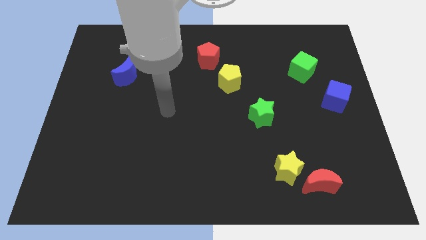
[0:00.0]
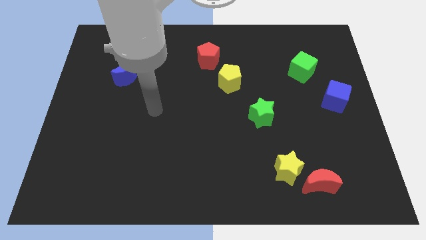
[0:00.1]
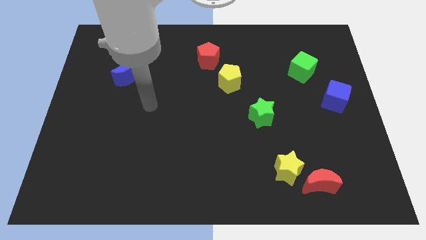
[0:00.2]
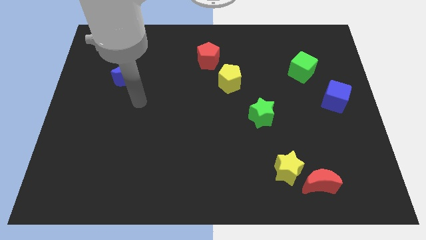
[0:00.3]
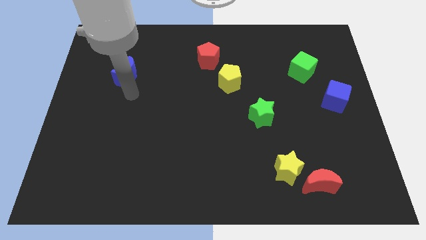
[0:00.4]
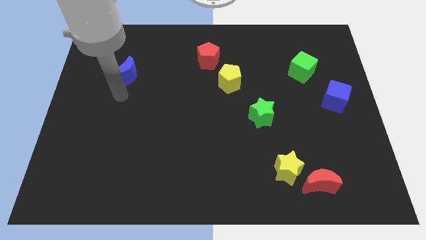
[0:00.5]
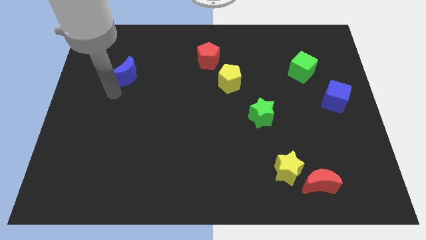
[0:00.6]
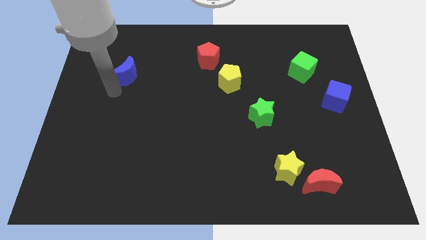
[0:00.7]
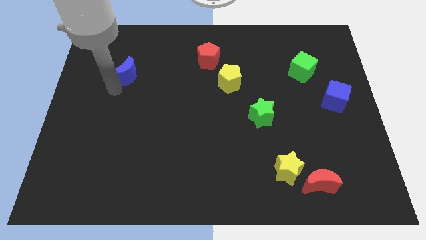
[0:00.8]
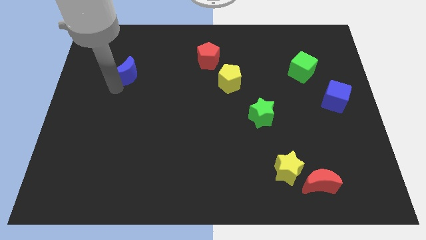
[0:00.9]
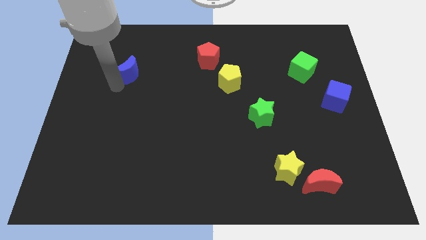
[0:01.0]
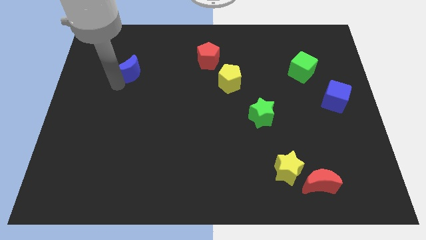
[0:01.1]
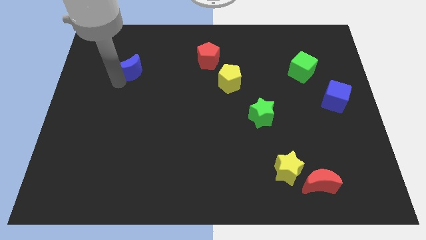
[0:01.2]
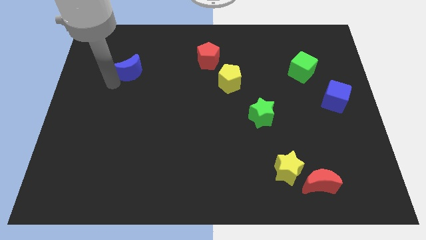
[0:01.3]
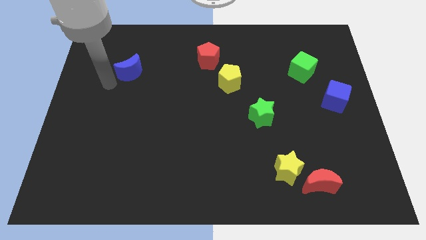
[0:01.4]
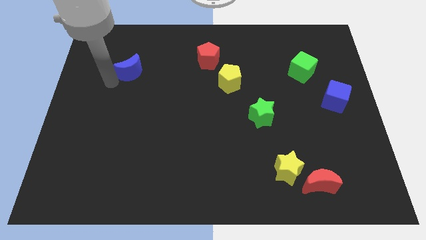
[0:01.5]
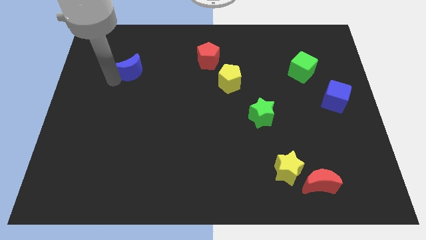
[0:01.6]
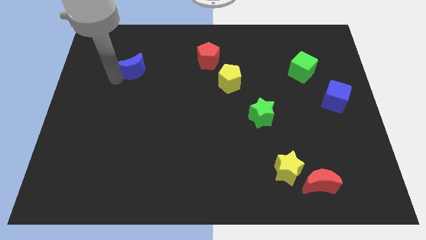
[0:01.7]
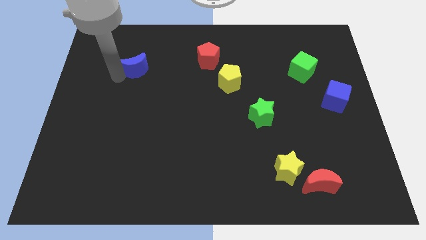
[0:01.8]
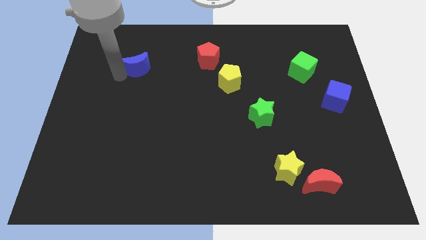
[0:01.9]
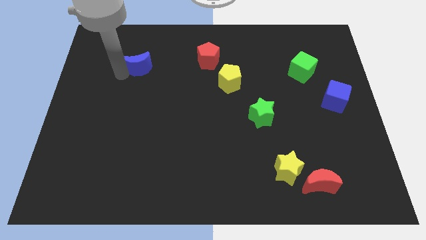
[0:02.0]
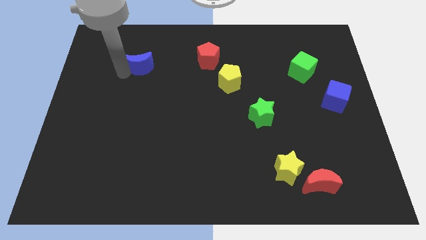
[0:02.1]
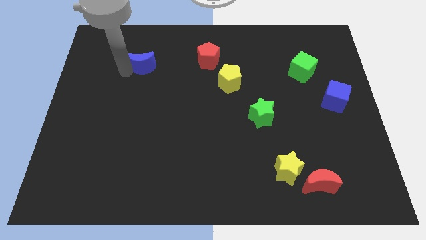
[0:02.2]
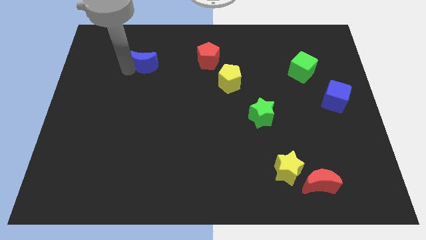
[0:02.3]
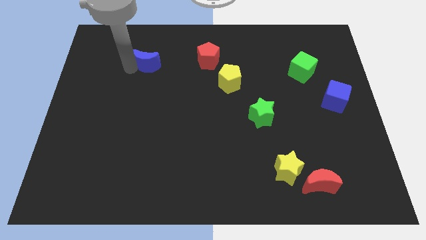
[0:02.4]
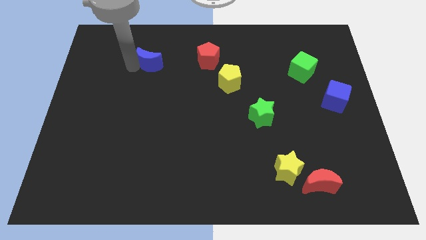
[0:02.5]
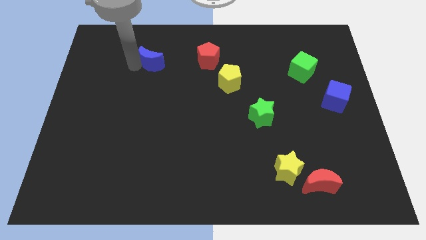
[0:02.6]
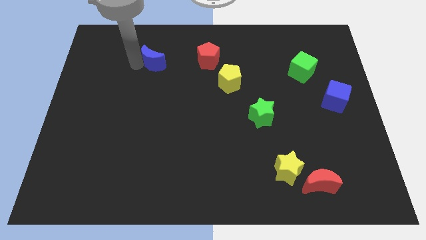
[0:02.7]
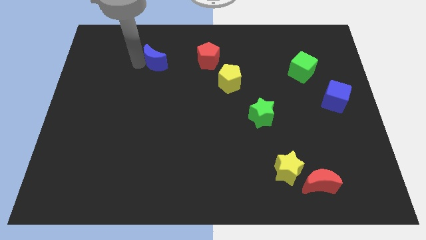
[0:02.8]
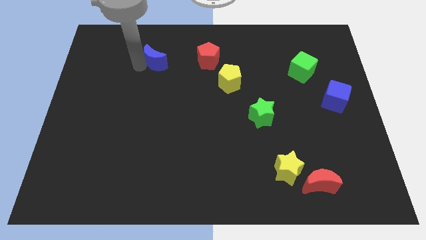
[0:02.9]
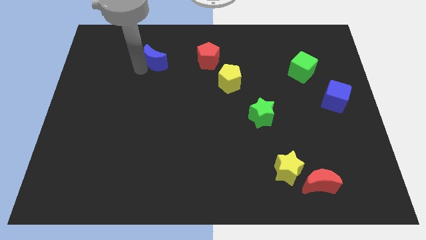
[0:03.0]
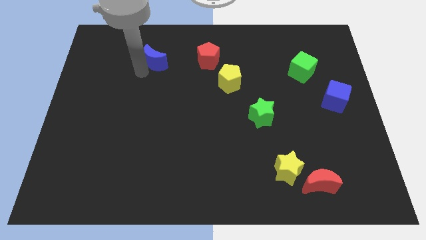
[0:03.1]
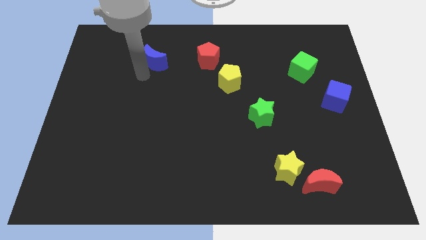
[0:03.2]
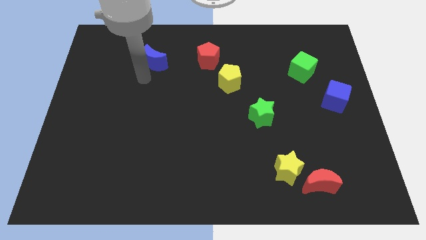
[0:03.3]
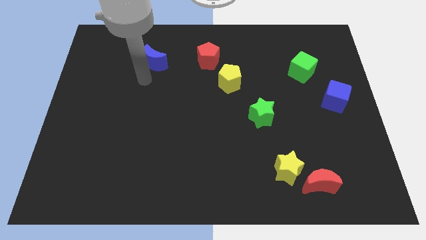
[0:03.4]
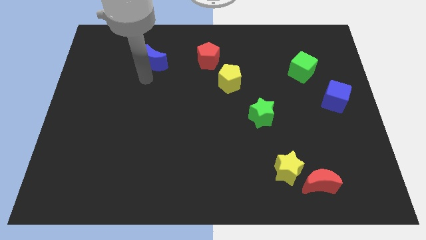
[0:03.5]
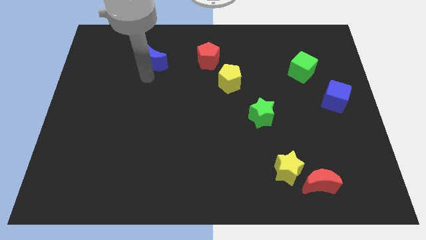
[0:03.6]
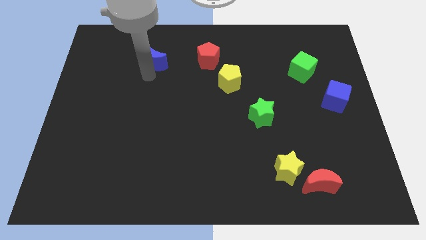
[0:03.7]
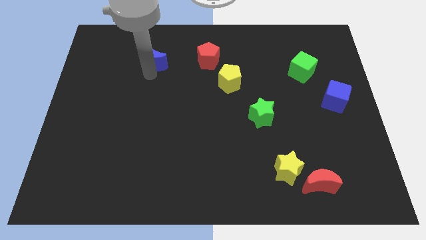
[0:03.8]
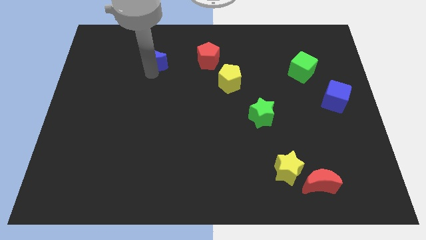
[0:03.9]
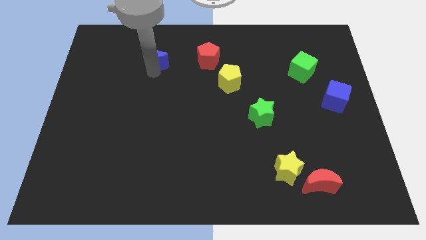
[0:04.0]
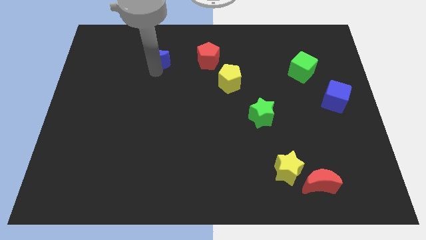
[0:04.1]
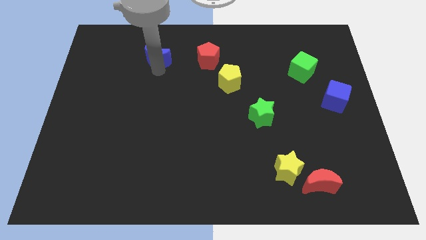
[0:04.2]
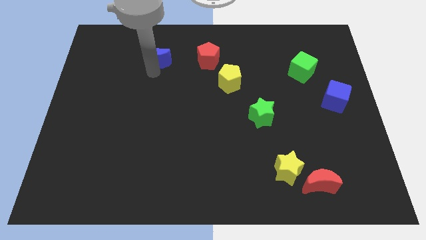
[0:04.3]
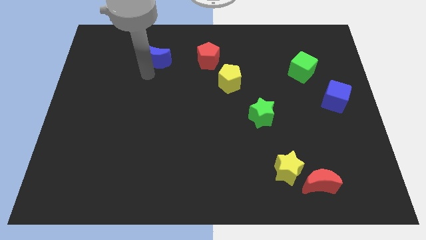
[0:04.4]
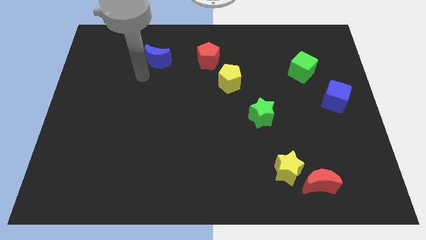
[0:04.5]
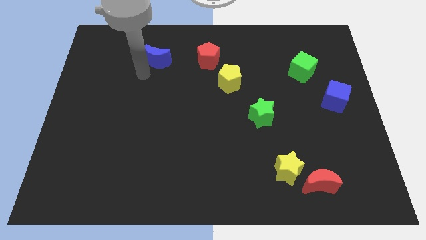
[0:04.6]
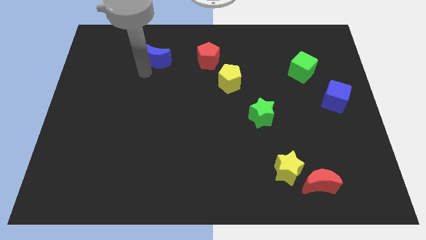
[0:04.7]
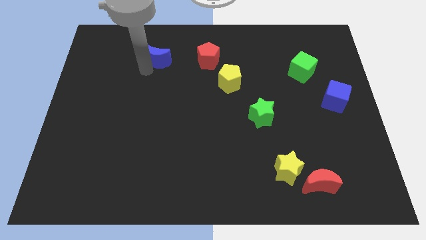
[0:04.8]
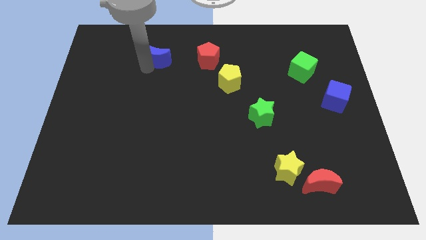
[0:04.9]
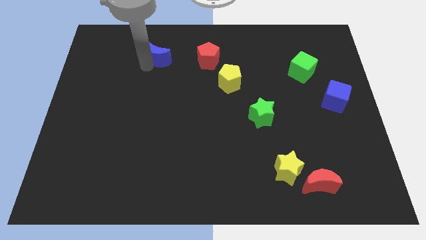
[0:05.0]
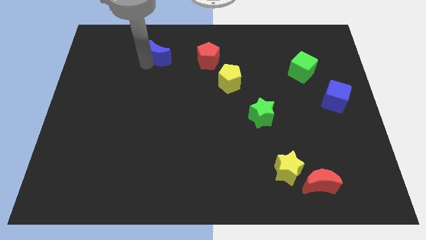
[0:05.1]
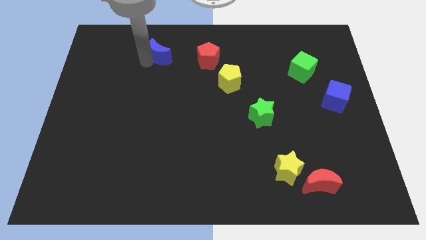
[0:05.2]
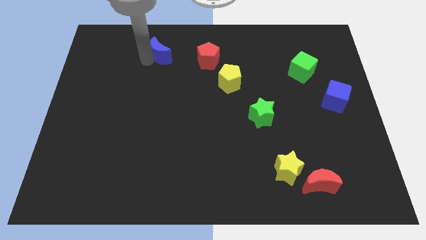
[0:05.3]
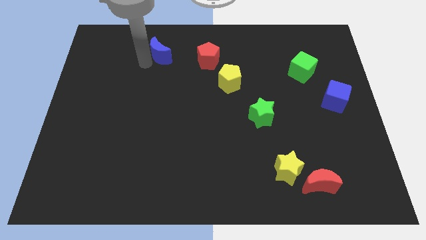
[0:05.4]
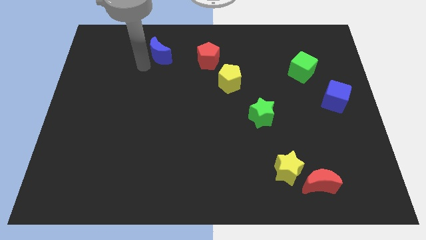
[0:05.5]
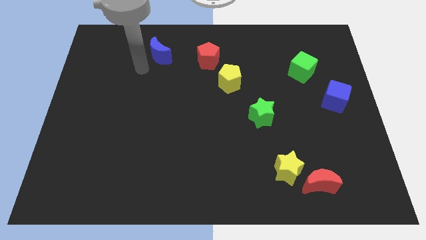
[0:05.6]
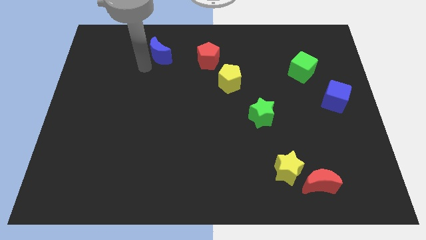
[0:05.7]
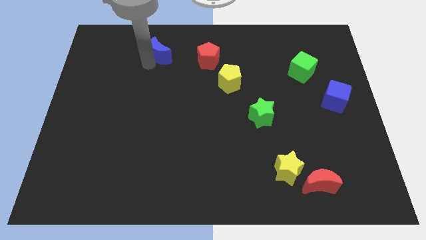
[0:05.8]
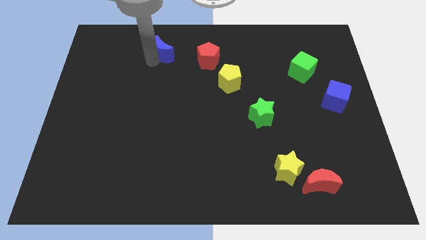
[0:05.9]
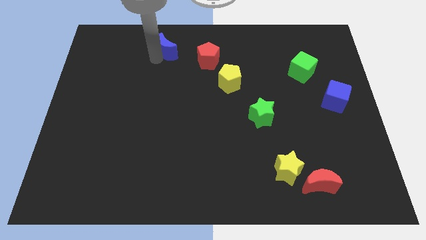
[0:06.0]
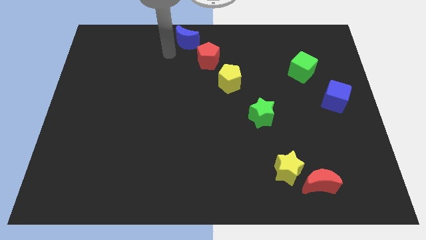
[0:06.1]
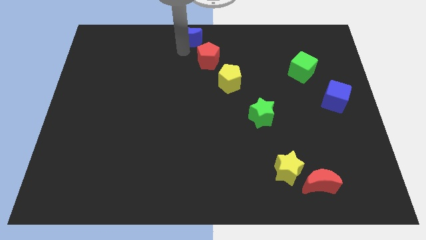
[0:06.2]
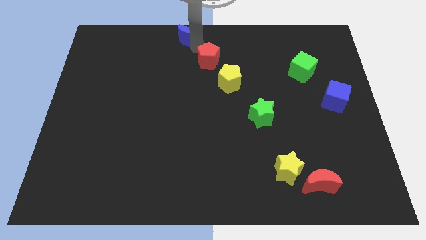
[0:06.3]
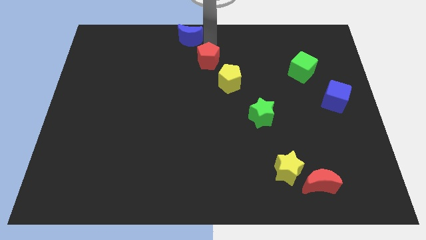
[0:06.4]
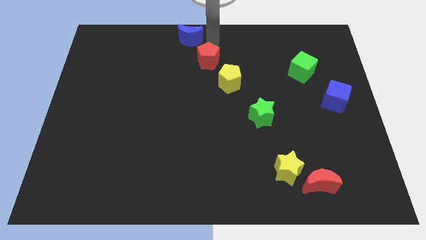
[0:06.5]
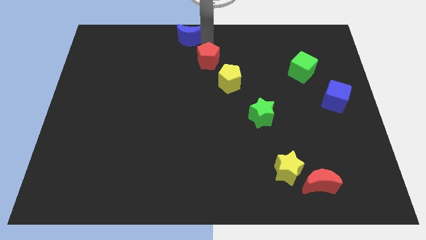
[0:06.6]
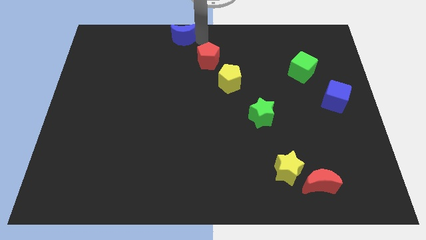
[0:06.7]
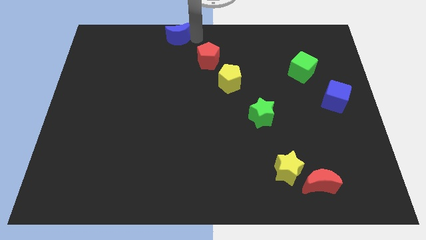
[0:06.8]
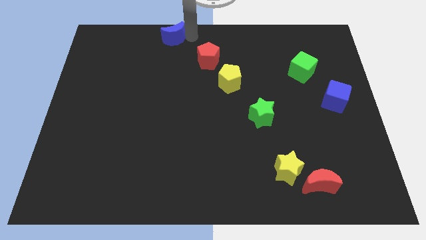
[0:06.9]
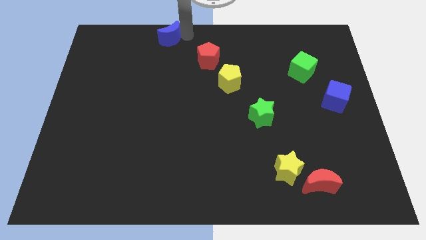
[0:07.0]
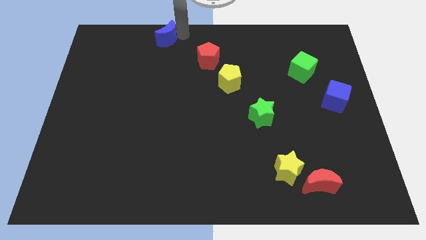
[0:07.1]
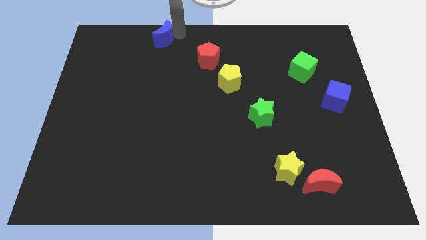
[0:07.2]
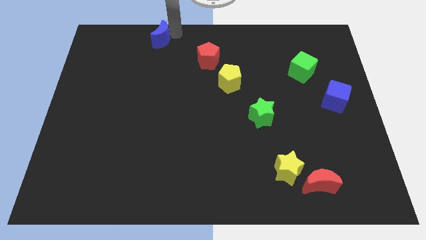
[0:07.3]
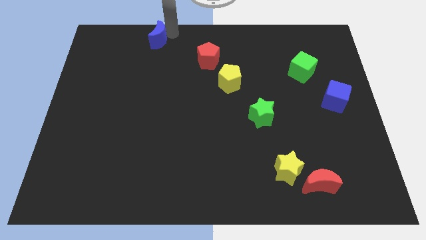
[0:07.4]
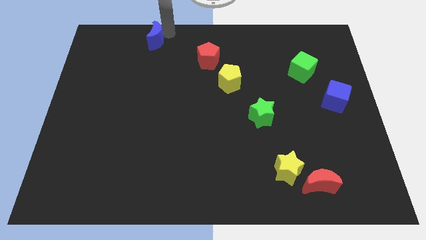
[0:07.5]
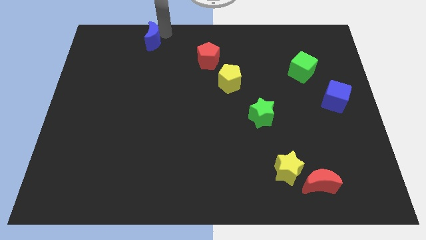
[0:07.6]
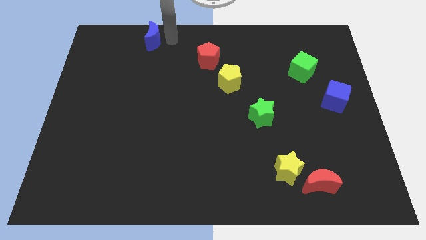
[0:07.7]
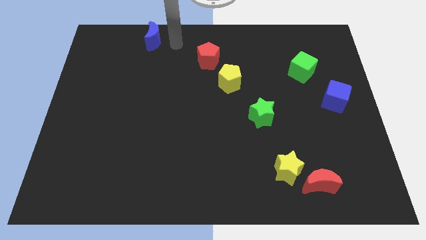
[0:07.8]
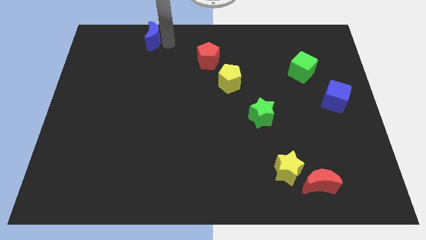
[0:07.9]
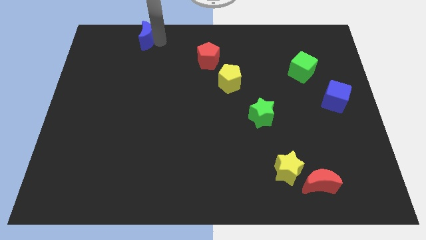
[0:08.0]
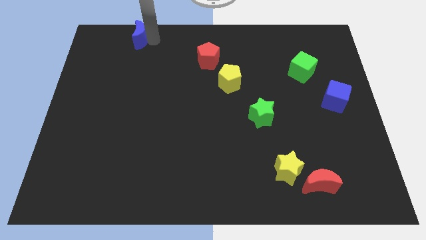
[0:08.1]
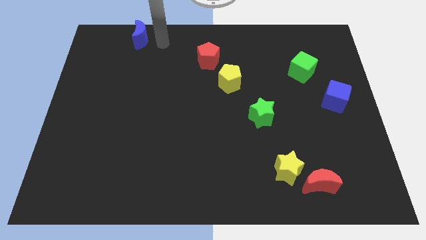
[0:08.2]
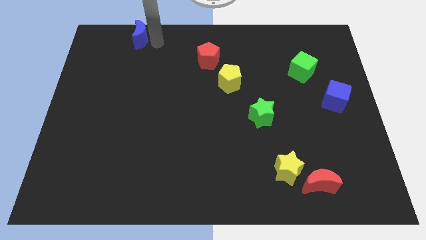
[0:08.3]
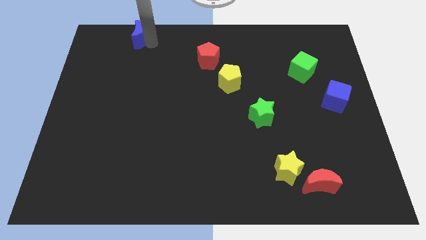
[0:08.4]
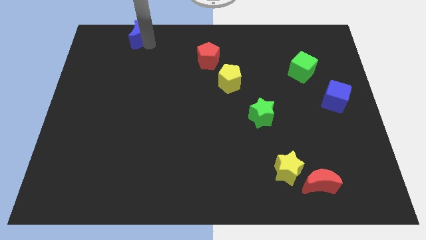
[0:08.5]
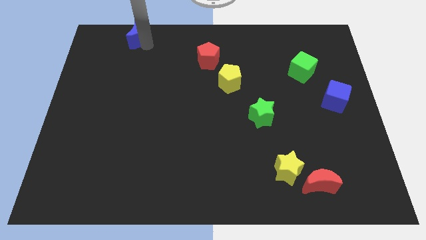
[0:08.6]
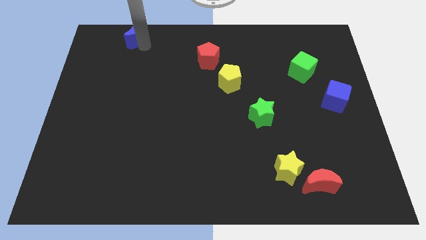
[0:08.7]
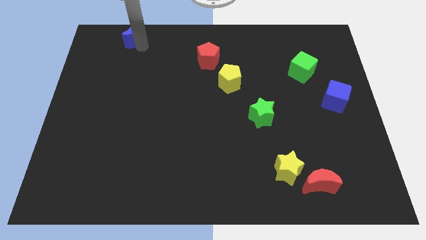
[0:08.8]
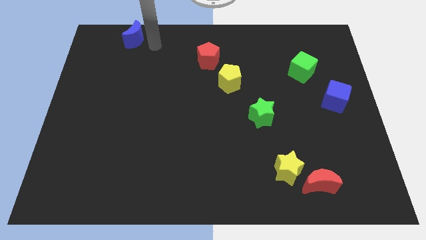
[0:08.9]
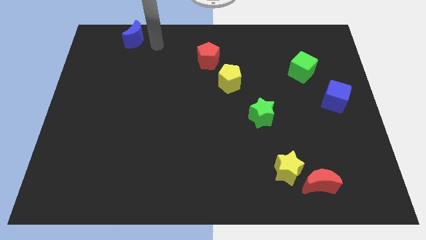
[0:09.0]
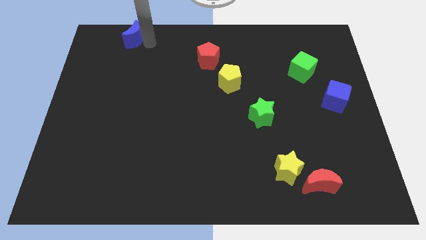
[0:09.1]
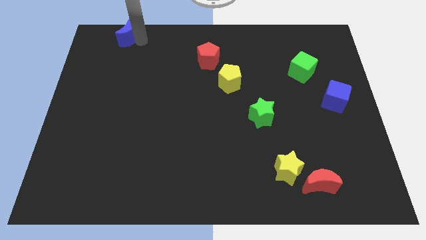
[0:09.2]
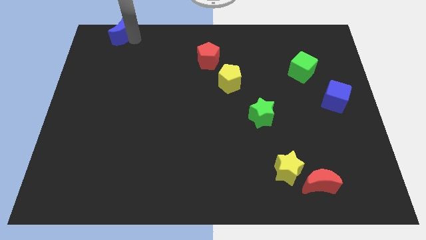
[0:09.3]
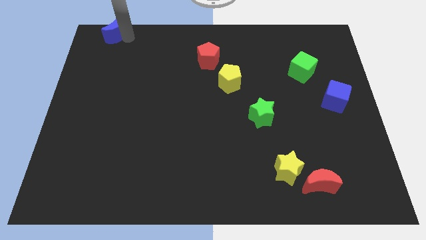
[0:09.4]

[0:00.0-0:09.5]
slide the blue moon to the top left of the board
